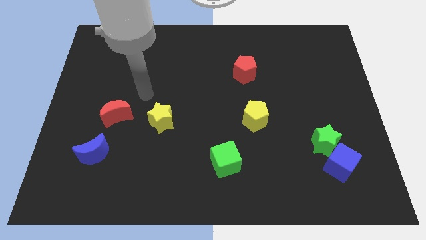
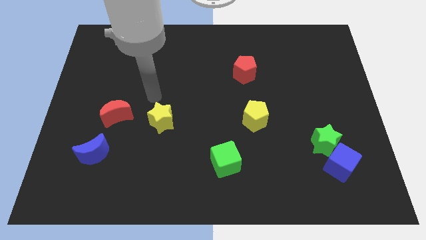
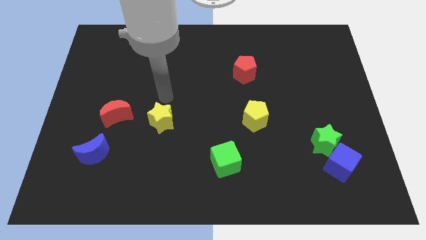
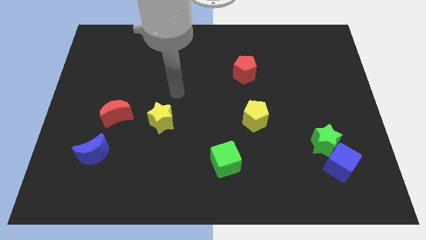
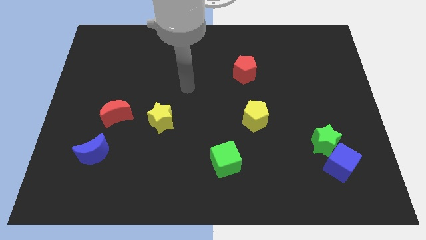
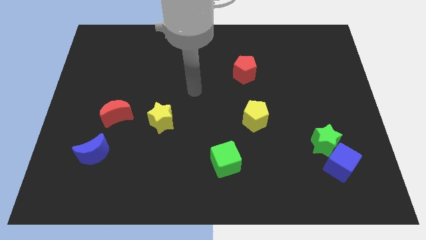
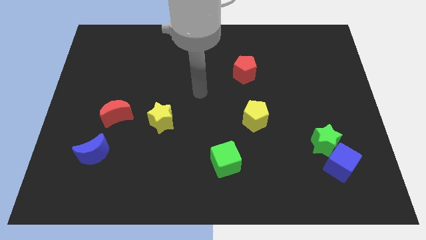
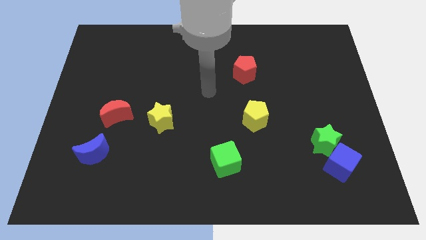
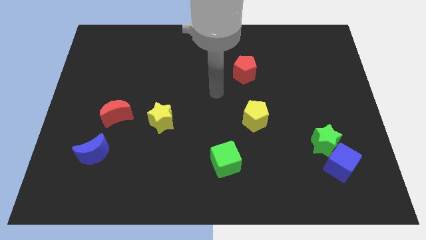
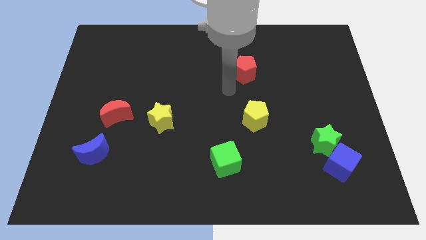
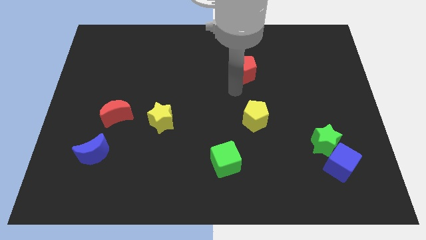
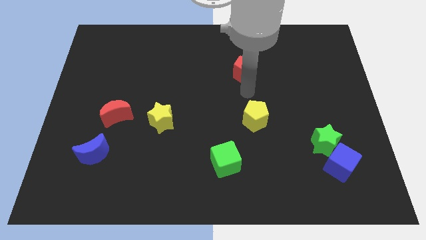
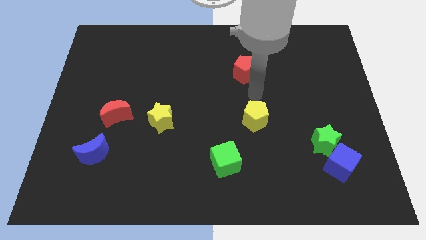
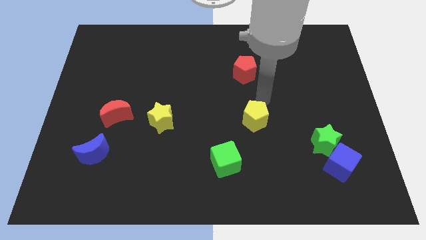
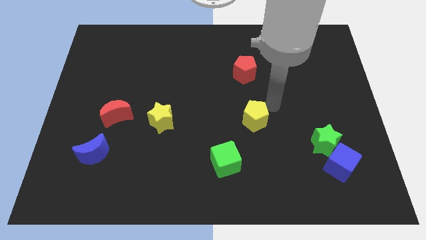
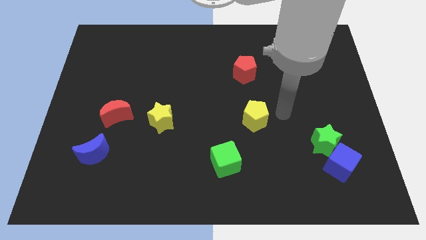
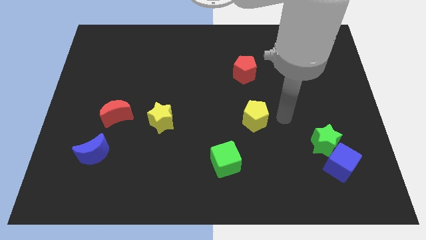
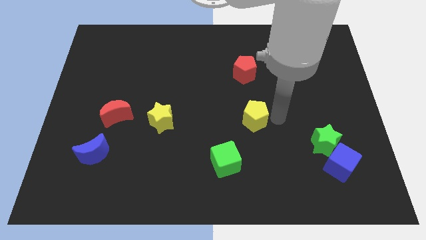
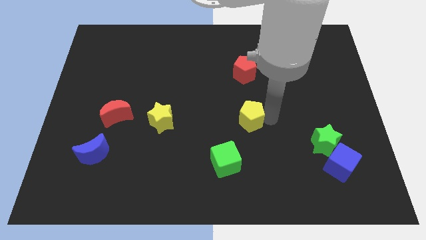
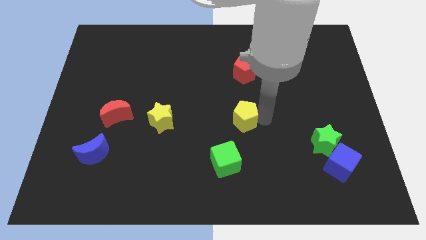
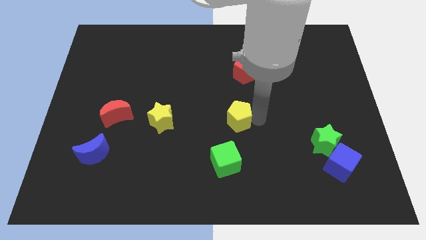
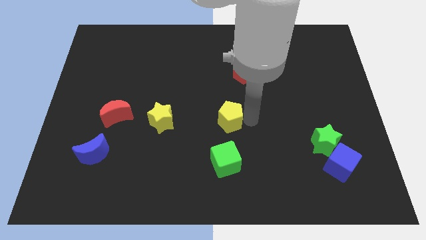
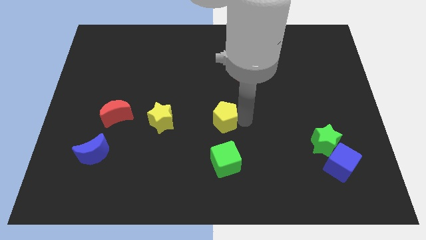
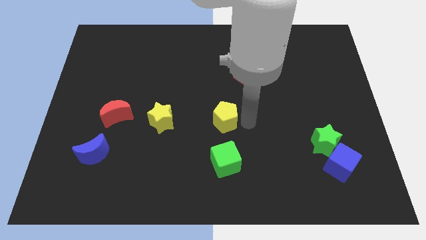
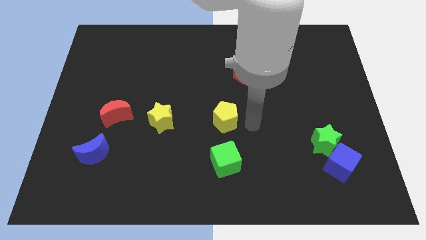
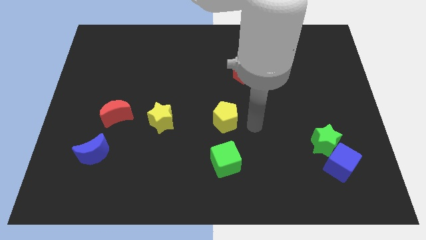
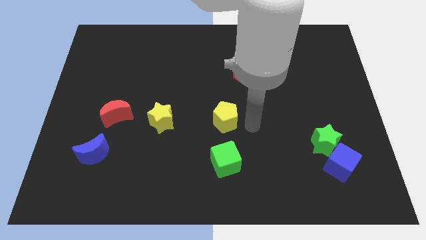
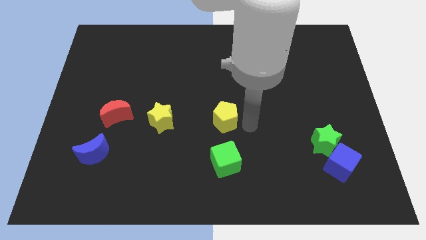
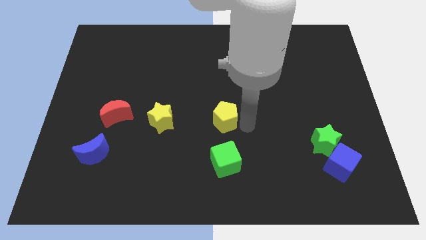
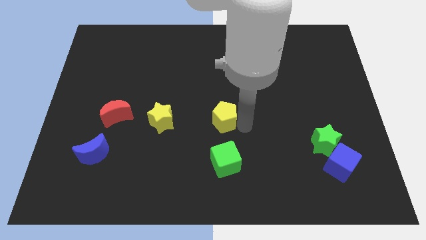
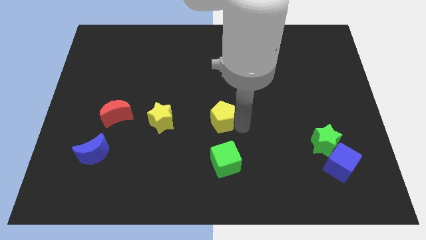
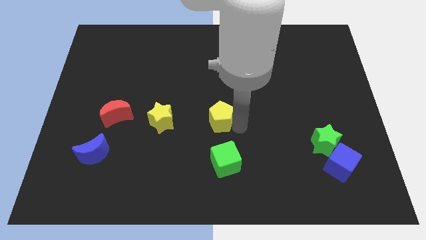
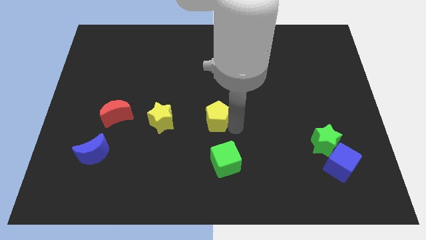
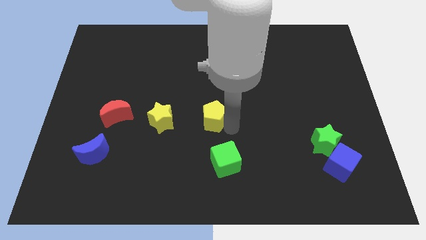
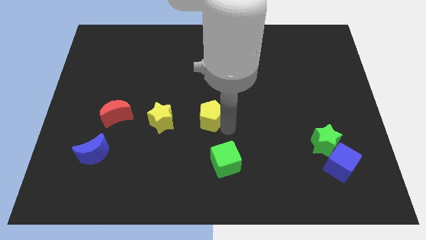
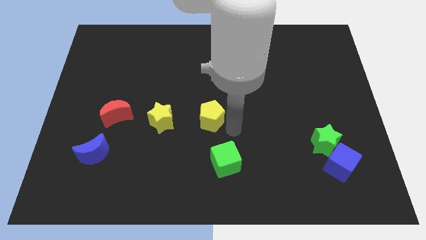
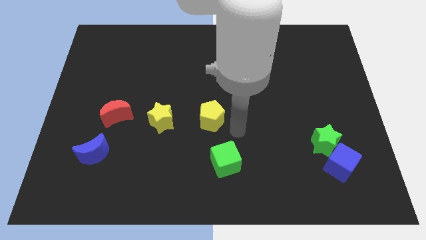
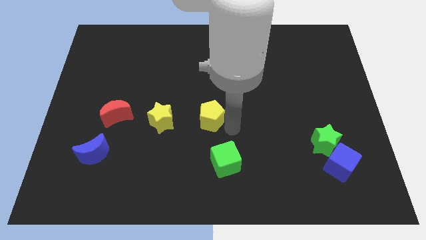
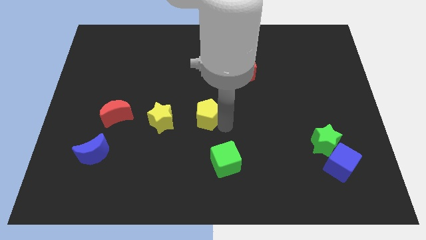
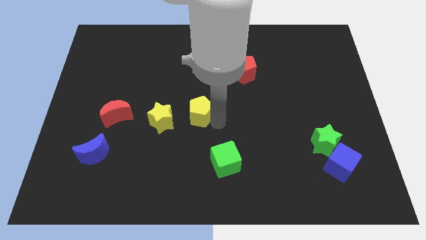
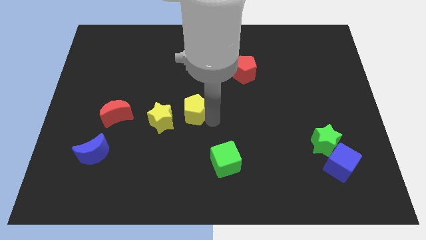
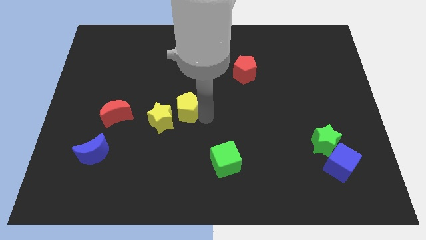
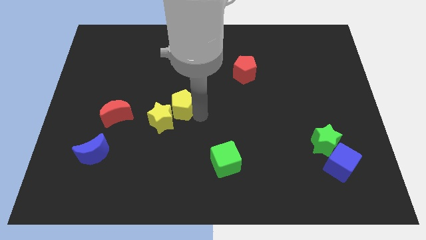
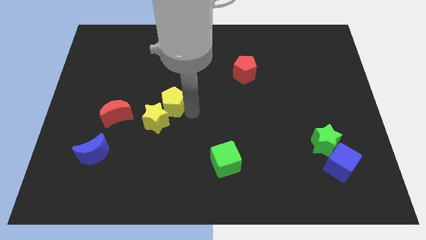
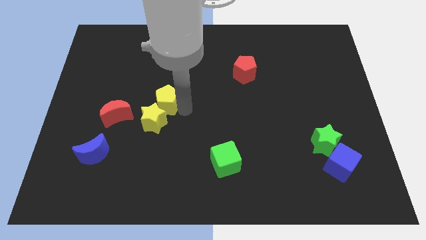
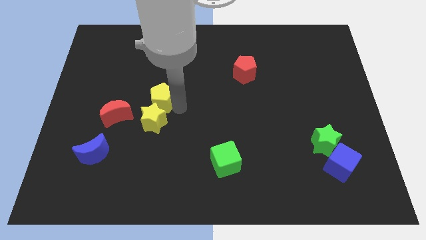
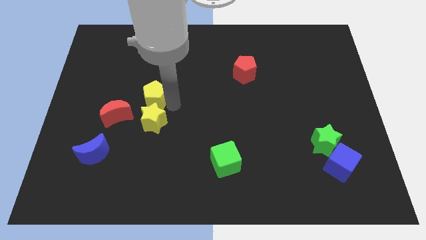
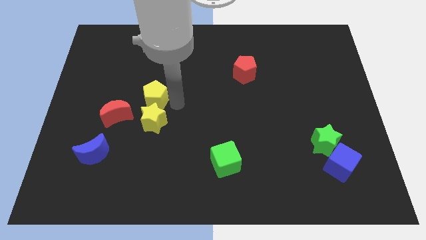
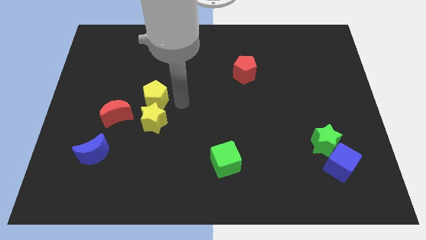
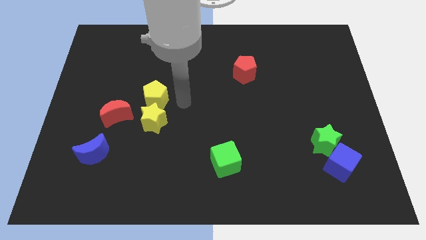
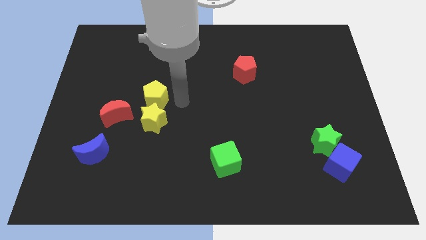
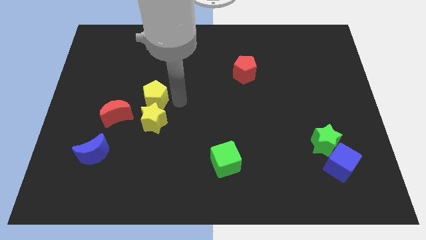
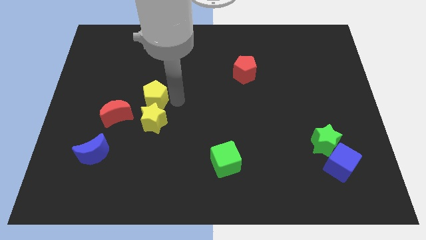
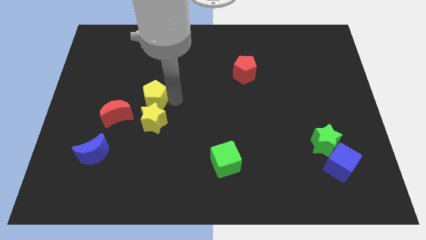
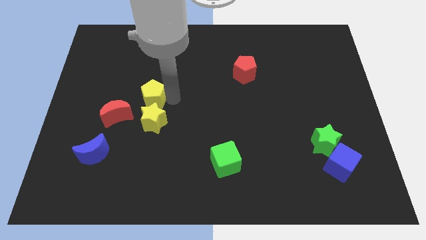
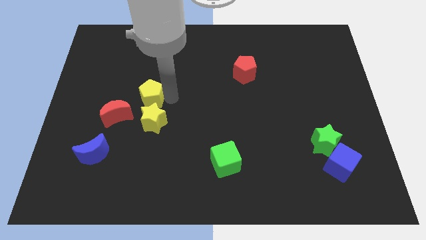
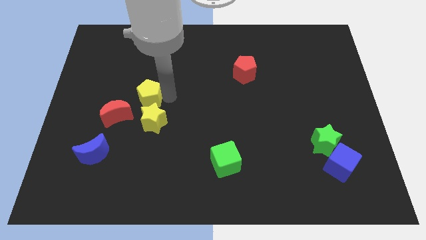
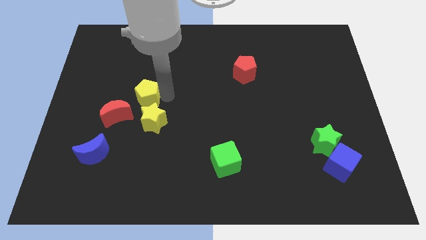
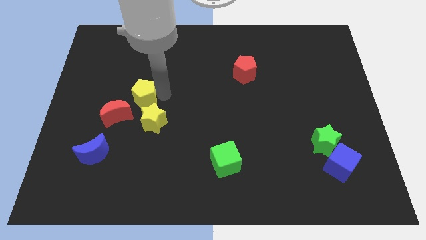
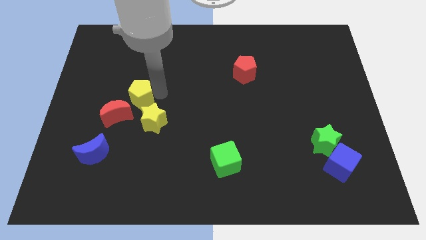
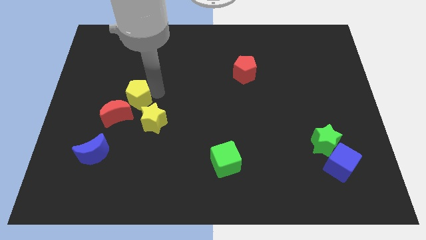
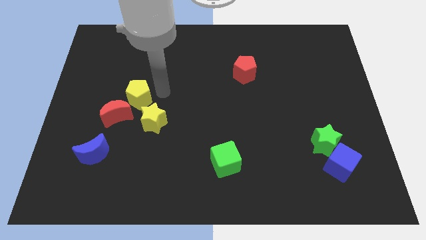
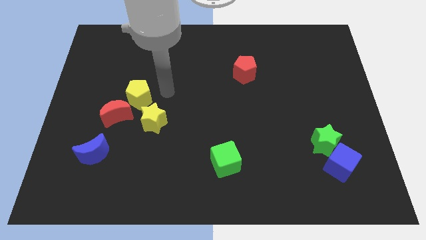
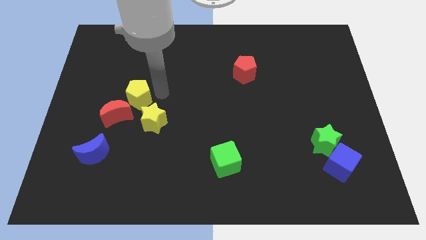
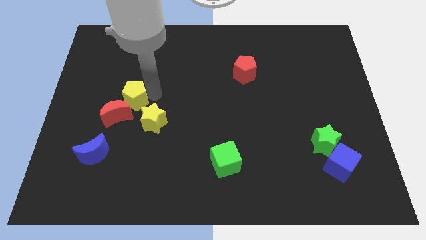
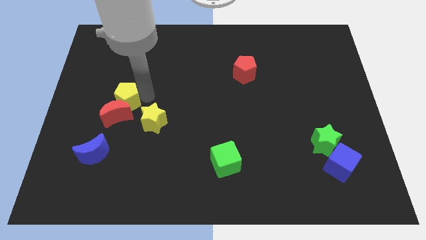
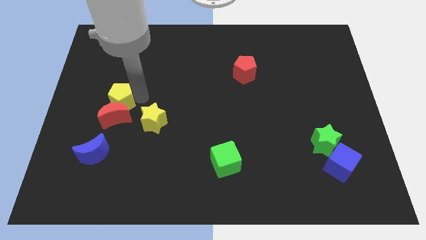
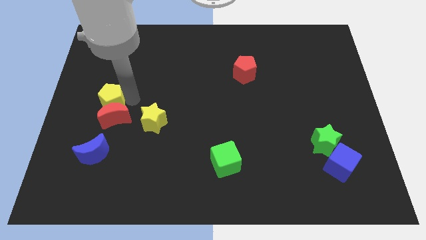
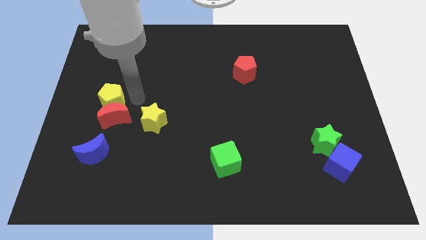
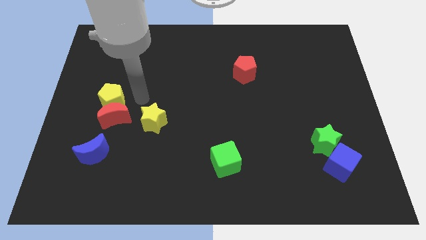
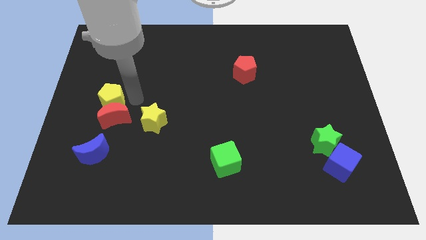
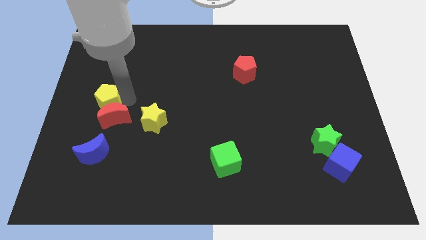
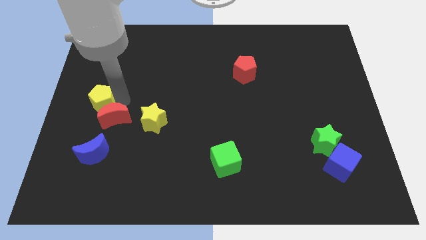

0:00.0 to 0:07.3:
slide the yellow pentagon to the left side of the board
